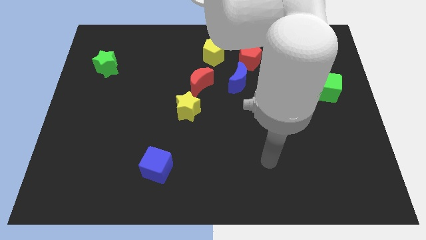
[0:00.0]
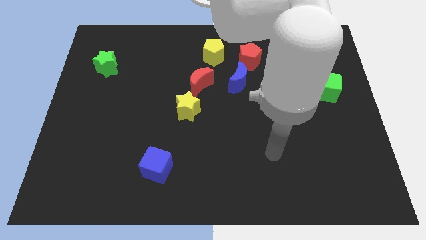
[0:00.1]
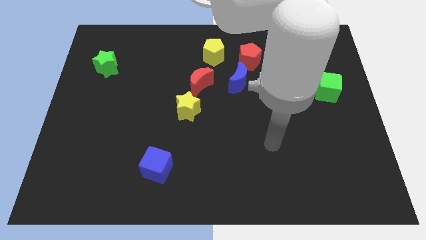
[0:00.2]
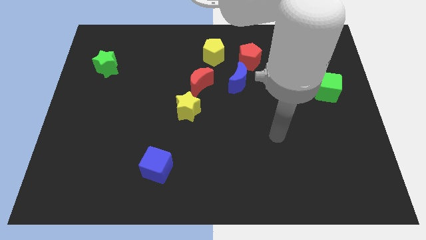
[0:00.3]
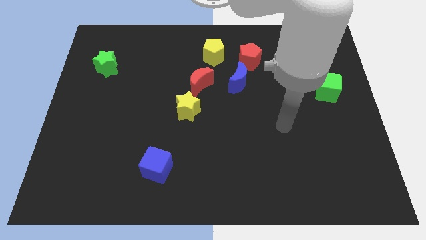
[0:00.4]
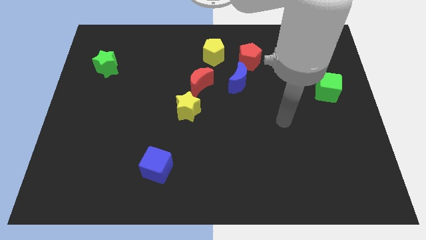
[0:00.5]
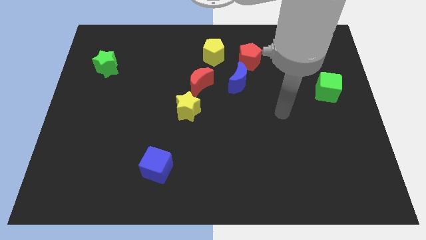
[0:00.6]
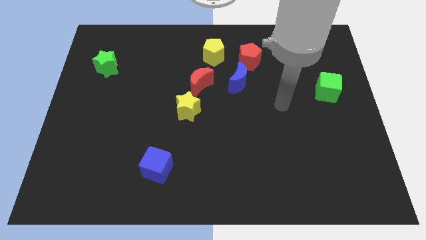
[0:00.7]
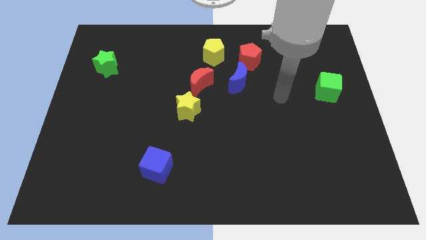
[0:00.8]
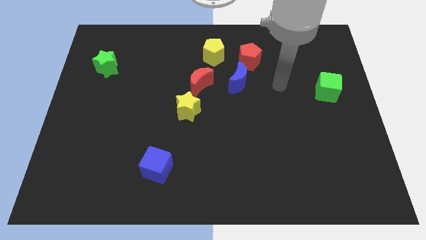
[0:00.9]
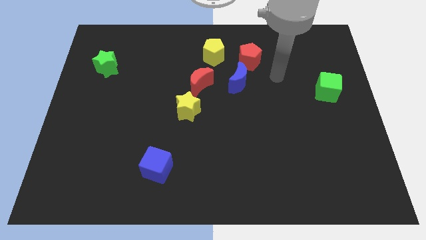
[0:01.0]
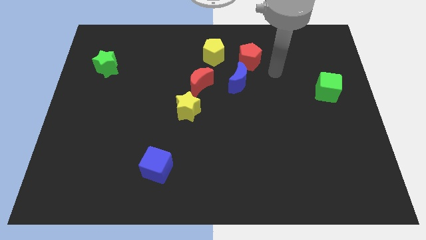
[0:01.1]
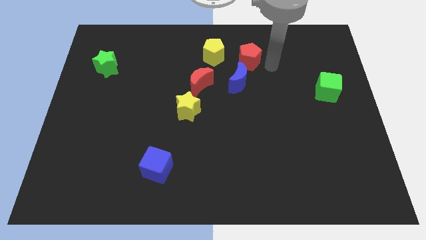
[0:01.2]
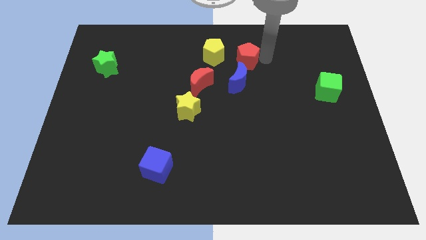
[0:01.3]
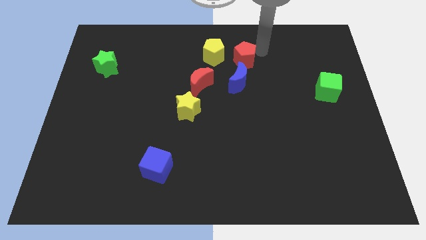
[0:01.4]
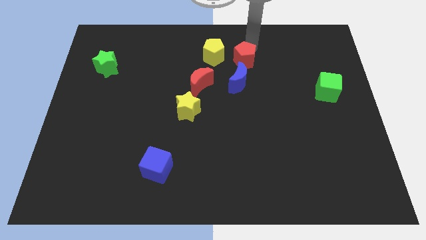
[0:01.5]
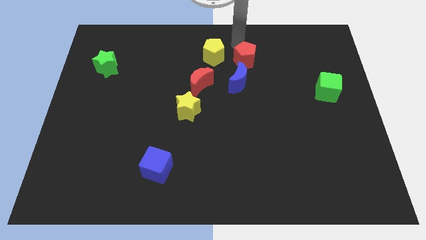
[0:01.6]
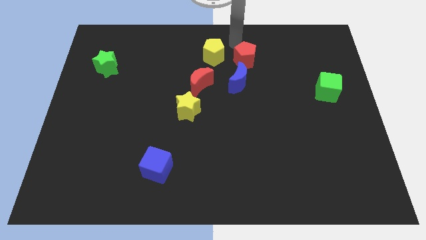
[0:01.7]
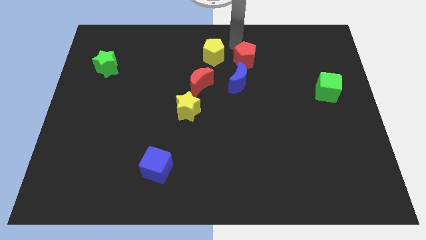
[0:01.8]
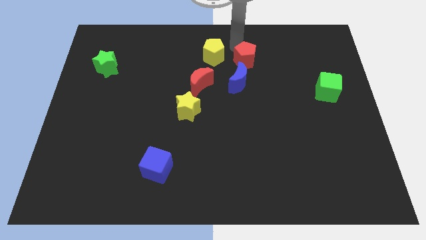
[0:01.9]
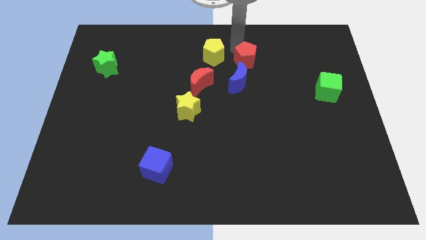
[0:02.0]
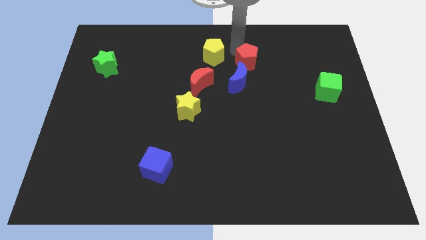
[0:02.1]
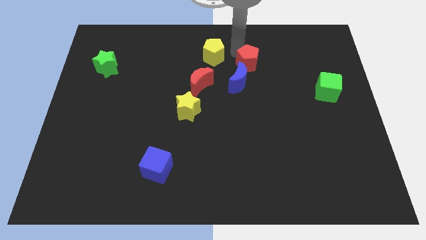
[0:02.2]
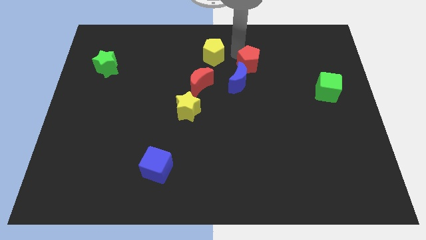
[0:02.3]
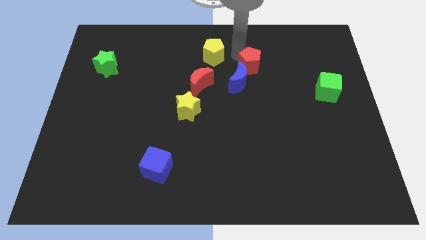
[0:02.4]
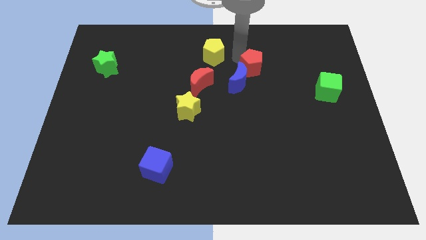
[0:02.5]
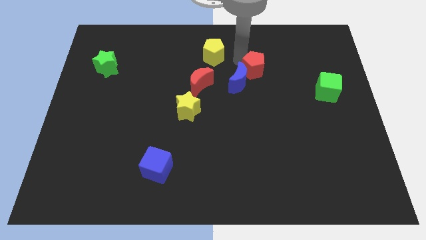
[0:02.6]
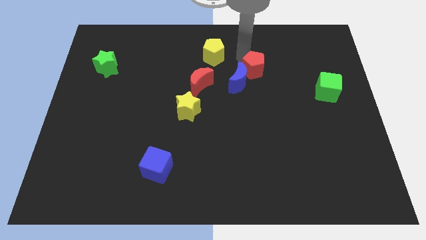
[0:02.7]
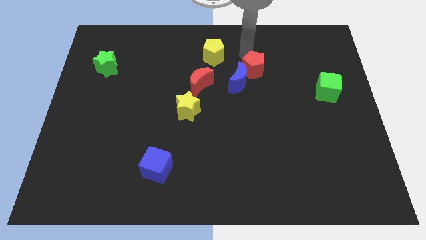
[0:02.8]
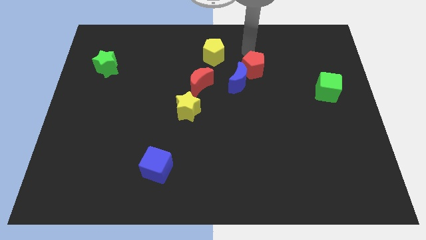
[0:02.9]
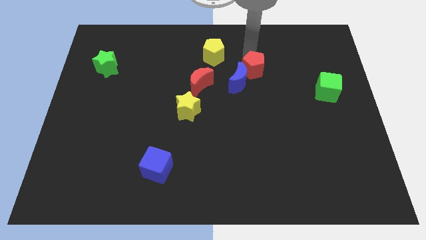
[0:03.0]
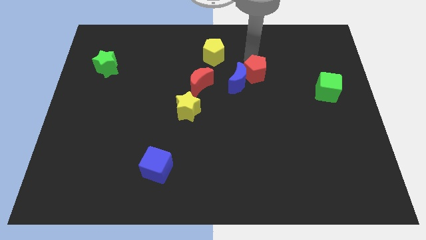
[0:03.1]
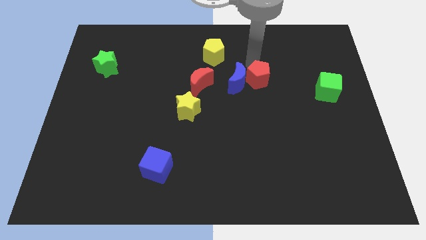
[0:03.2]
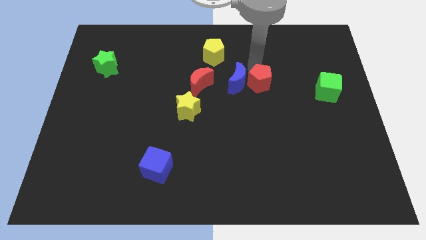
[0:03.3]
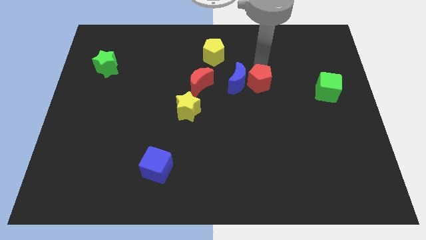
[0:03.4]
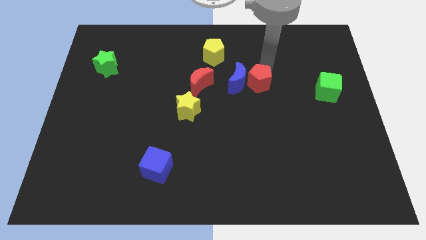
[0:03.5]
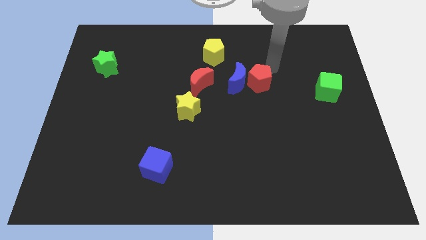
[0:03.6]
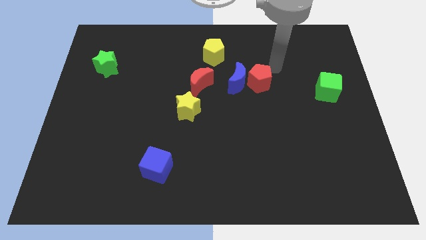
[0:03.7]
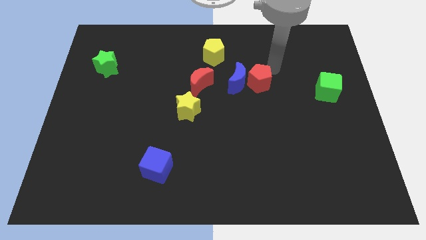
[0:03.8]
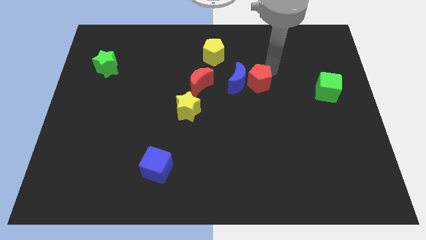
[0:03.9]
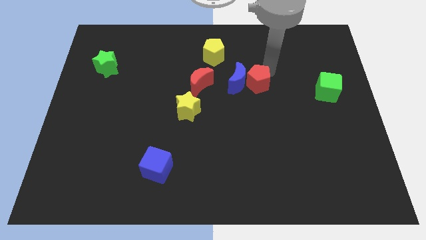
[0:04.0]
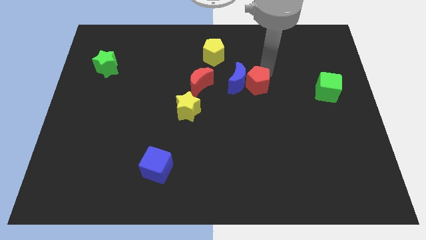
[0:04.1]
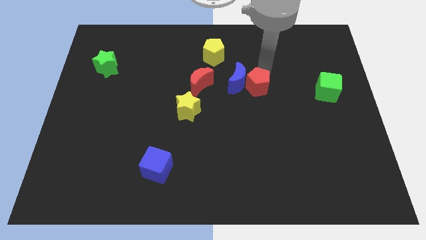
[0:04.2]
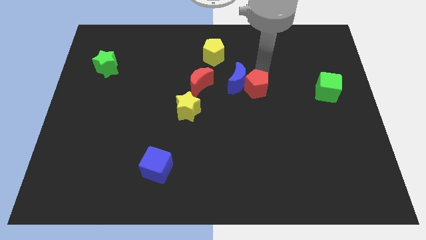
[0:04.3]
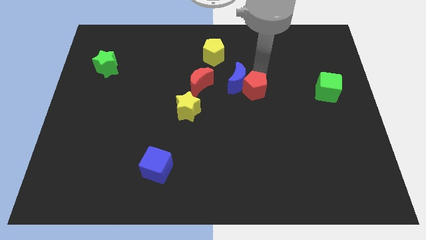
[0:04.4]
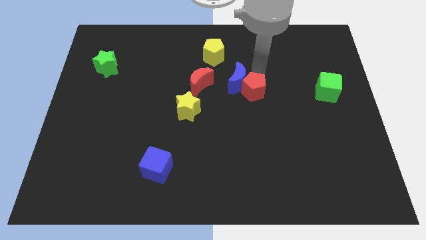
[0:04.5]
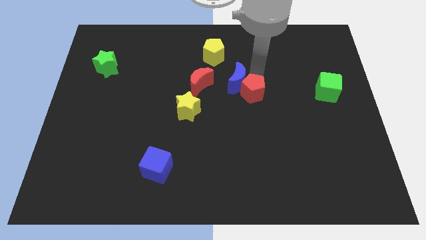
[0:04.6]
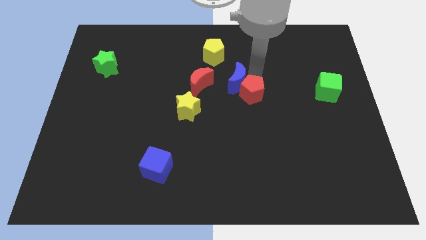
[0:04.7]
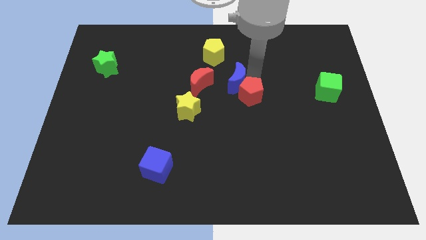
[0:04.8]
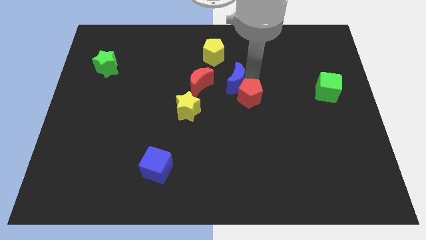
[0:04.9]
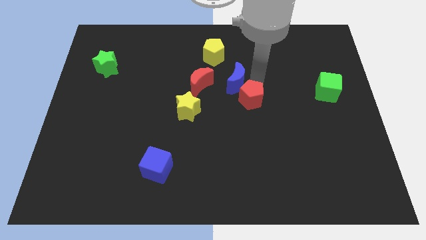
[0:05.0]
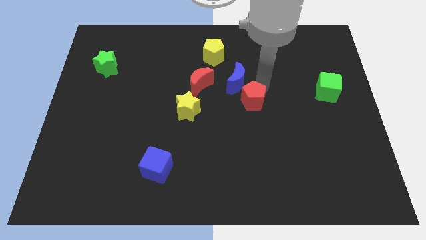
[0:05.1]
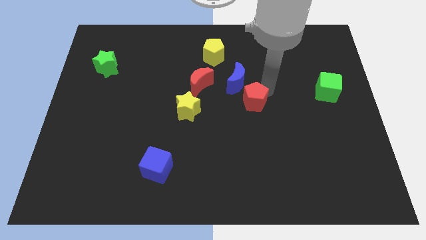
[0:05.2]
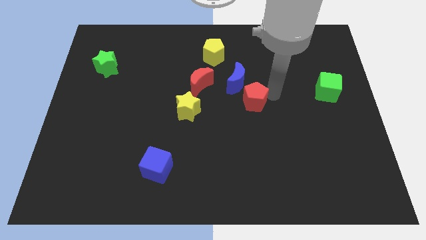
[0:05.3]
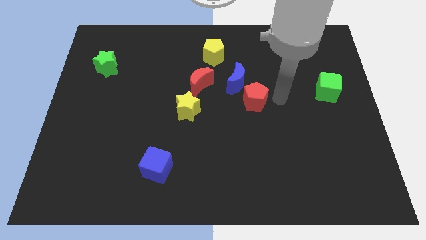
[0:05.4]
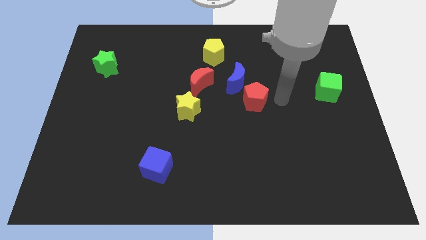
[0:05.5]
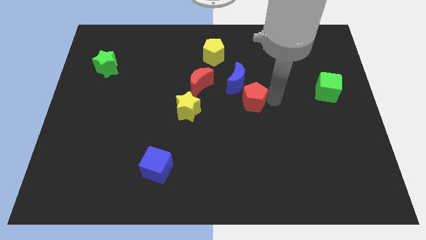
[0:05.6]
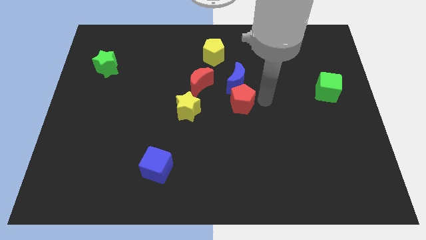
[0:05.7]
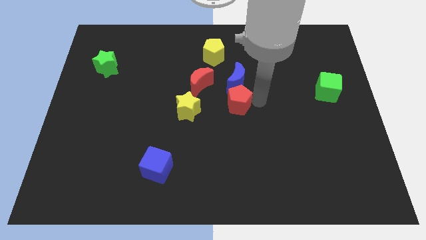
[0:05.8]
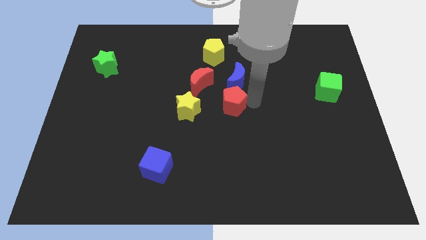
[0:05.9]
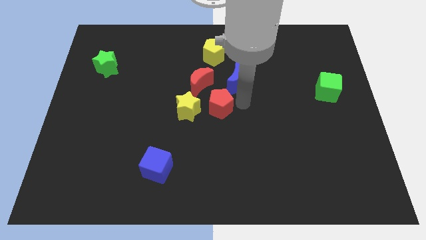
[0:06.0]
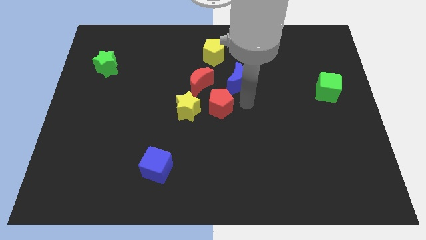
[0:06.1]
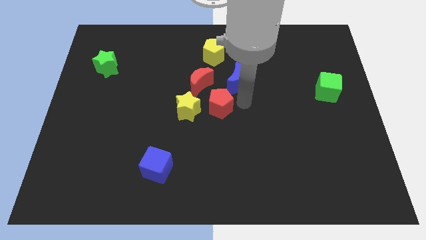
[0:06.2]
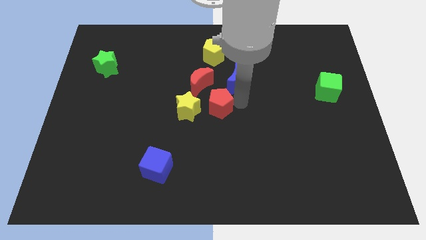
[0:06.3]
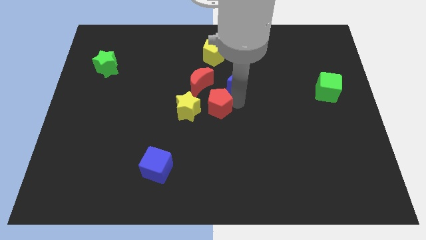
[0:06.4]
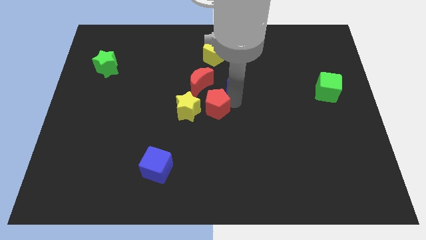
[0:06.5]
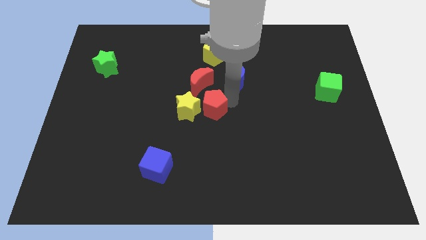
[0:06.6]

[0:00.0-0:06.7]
push the red pentagon towards the yellow star
